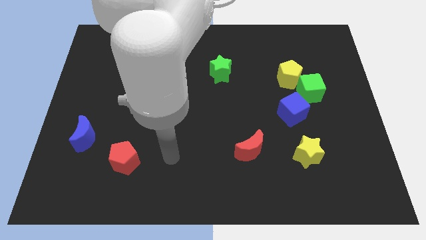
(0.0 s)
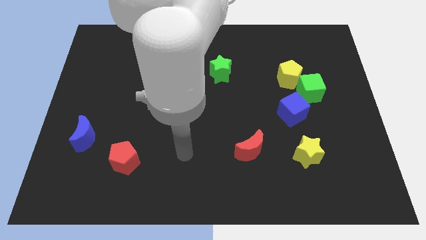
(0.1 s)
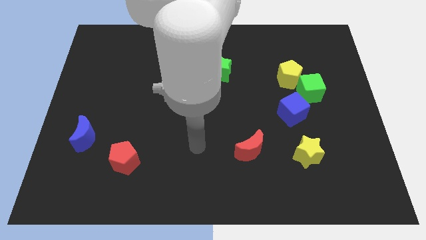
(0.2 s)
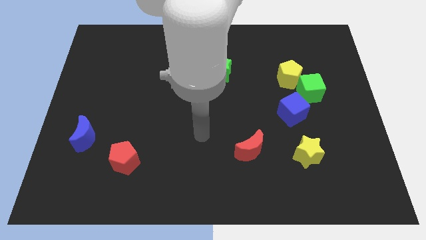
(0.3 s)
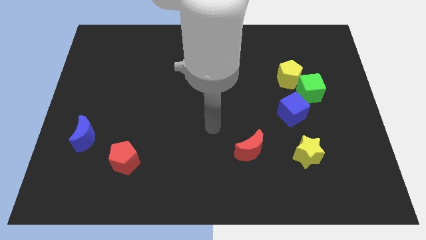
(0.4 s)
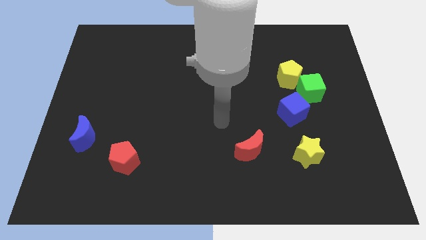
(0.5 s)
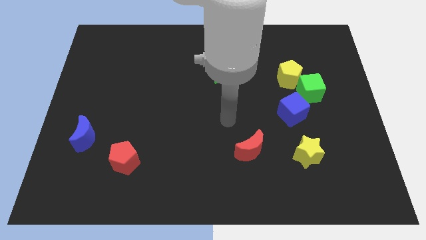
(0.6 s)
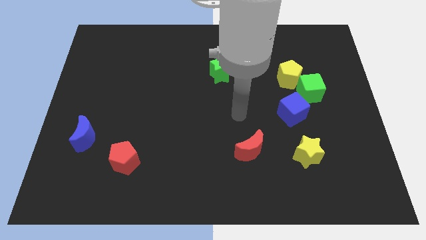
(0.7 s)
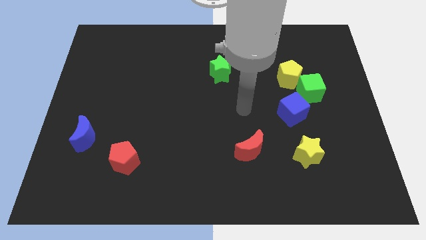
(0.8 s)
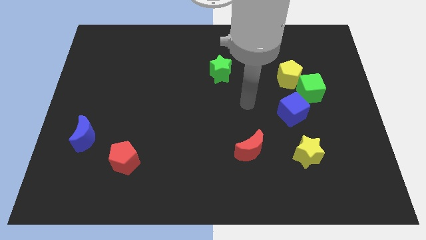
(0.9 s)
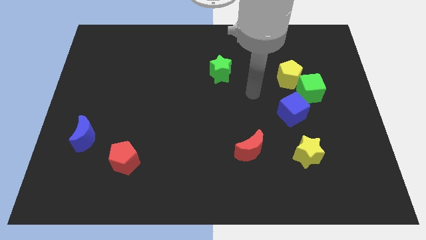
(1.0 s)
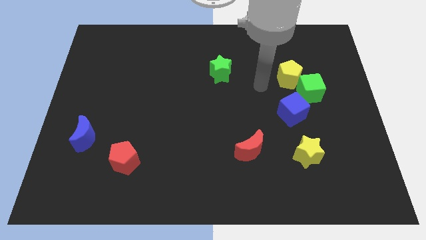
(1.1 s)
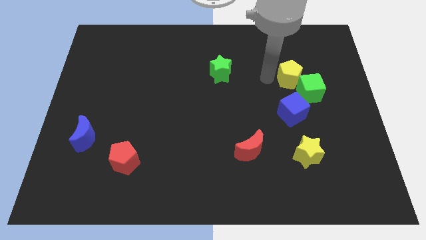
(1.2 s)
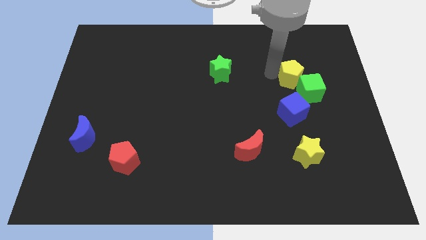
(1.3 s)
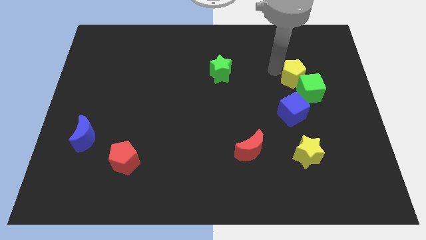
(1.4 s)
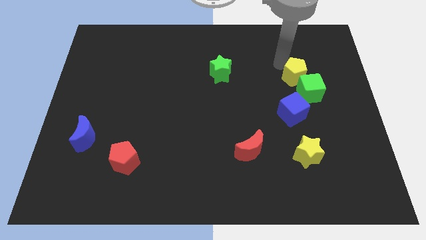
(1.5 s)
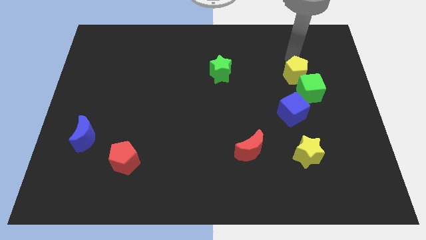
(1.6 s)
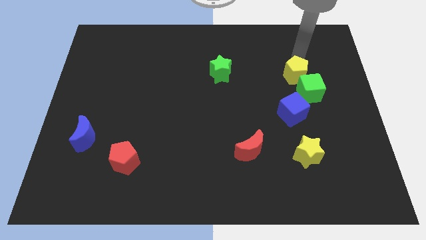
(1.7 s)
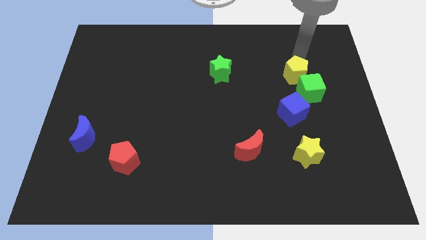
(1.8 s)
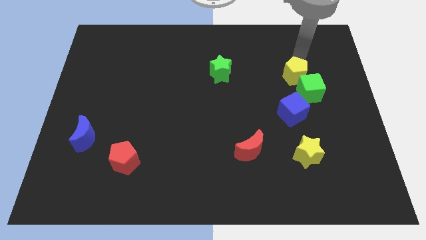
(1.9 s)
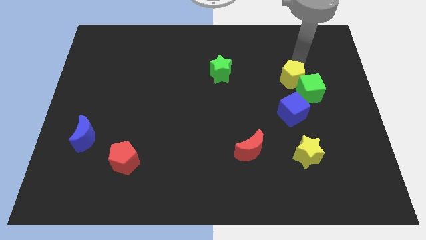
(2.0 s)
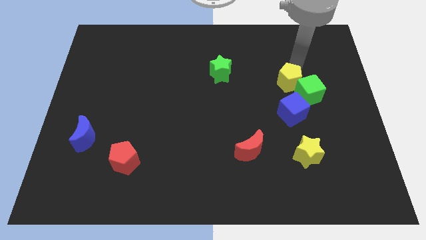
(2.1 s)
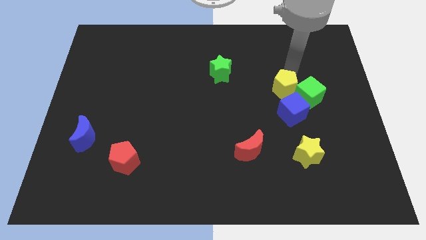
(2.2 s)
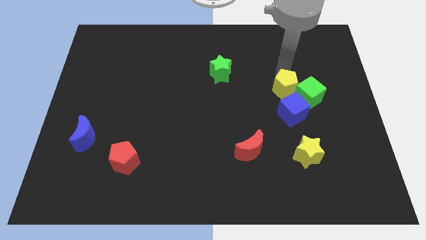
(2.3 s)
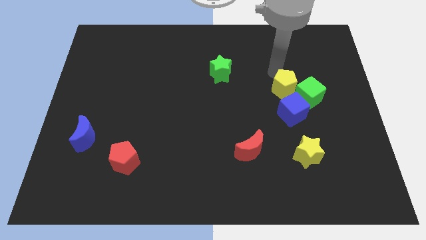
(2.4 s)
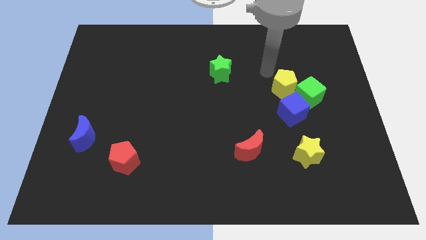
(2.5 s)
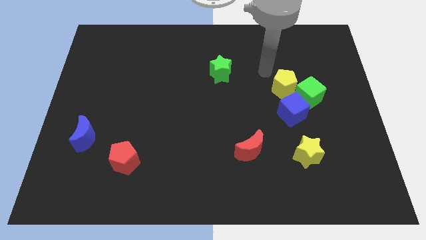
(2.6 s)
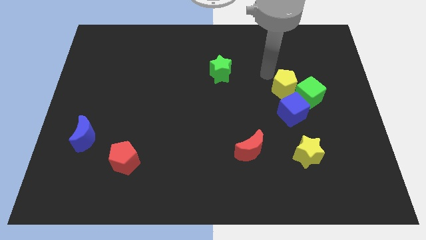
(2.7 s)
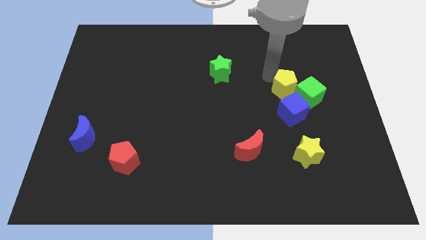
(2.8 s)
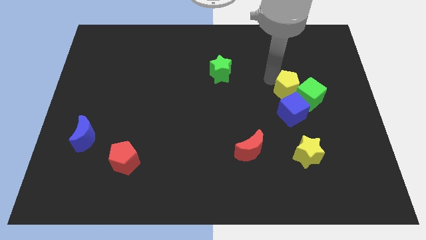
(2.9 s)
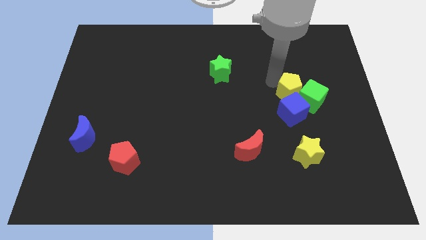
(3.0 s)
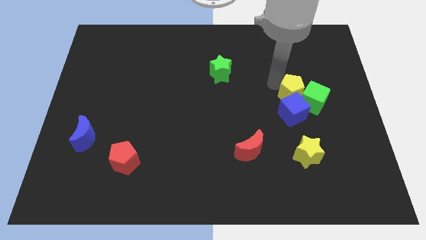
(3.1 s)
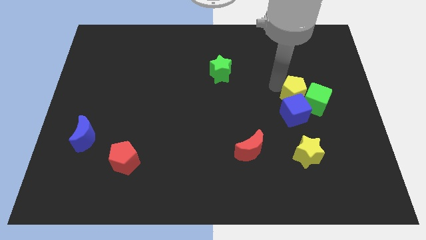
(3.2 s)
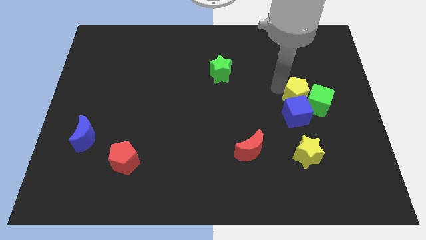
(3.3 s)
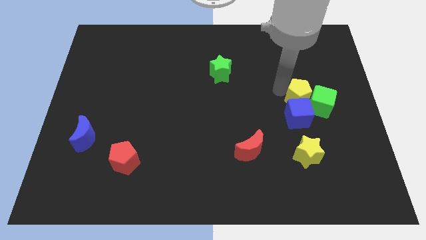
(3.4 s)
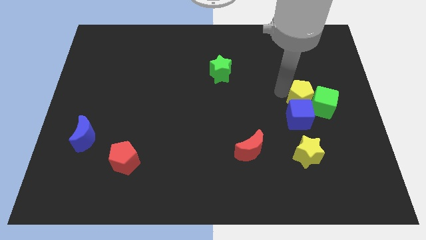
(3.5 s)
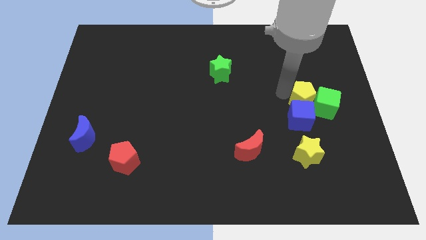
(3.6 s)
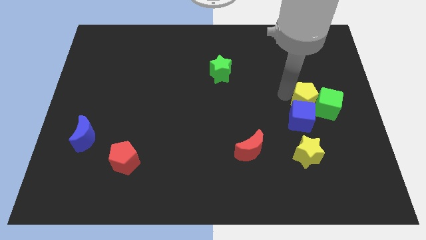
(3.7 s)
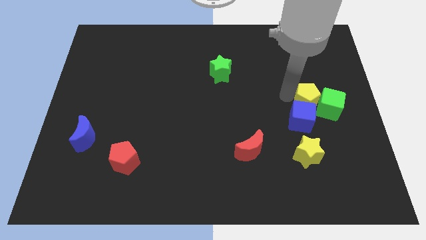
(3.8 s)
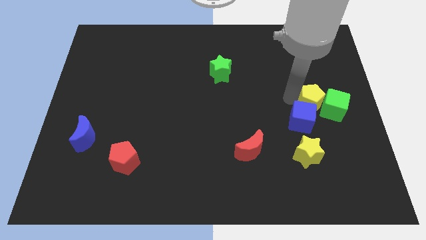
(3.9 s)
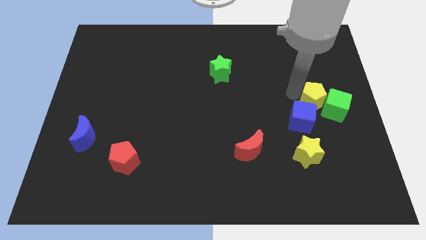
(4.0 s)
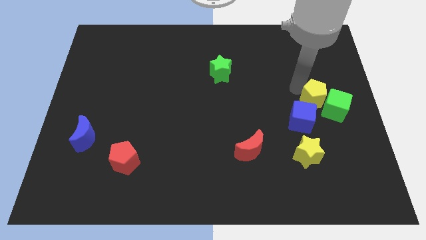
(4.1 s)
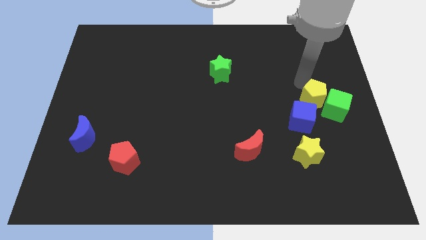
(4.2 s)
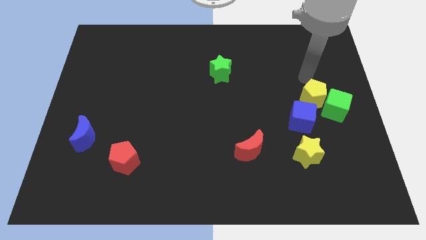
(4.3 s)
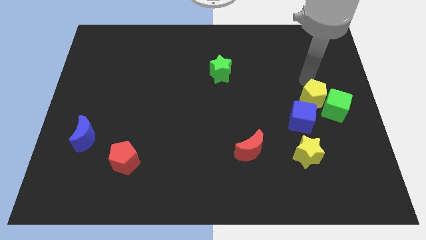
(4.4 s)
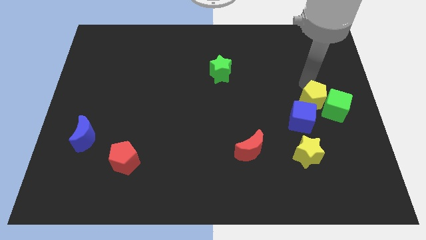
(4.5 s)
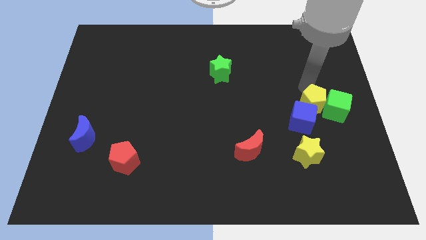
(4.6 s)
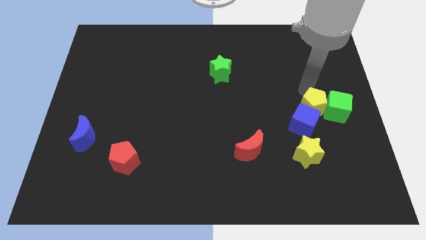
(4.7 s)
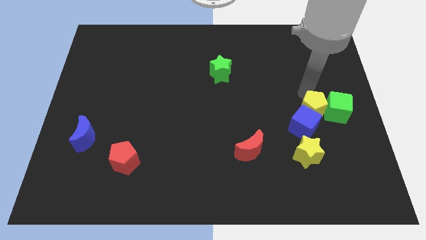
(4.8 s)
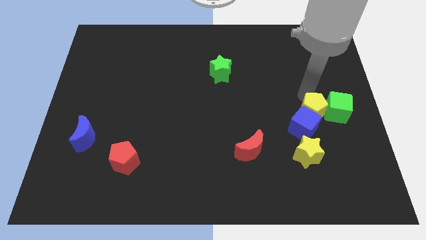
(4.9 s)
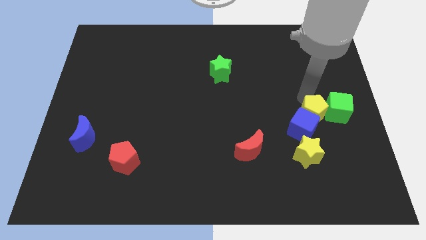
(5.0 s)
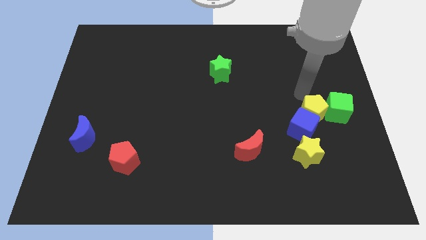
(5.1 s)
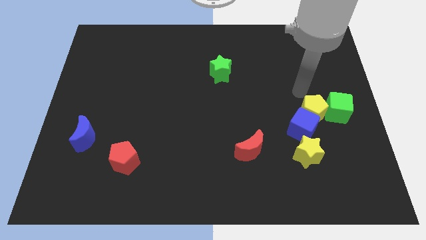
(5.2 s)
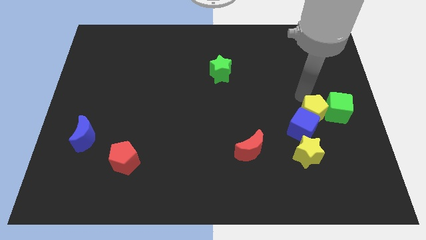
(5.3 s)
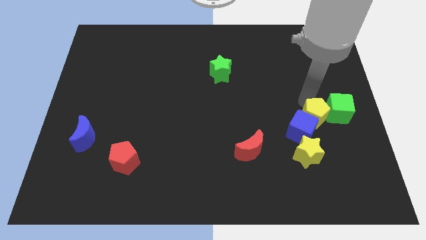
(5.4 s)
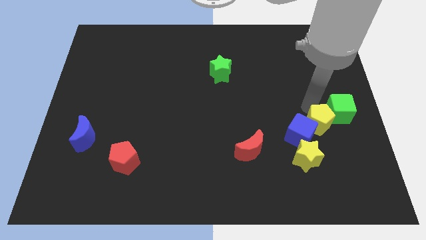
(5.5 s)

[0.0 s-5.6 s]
slide the yellow pentagon to the top right side of the yellow star

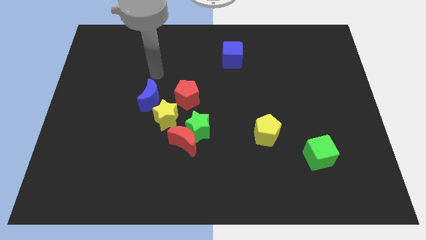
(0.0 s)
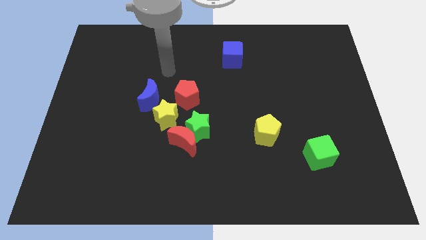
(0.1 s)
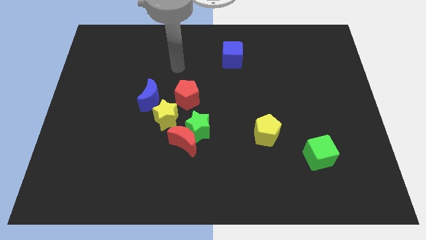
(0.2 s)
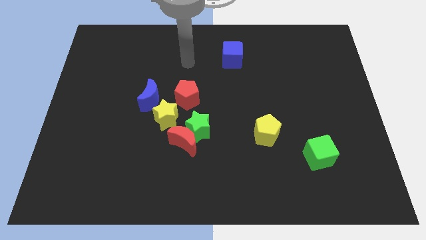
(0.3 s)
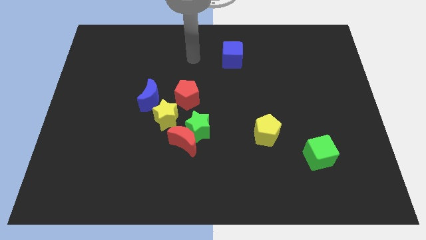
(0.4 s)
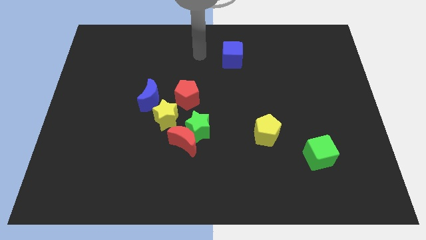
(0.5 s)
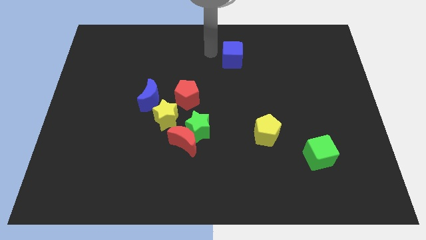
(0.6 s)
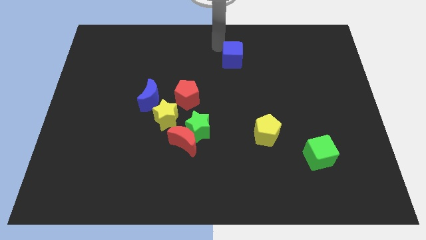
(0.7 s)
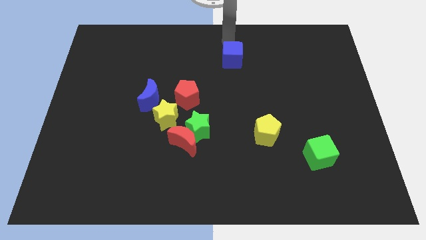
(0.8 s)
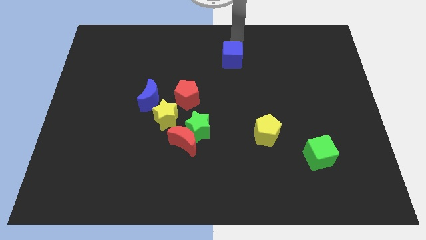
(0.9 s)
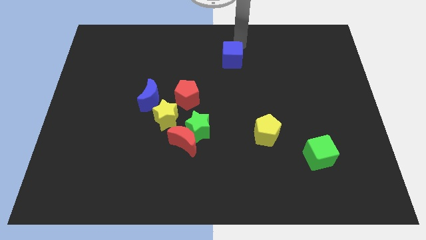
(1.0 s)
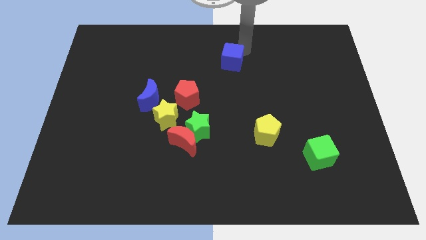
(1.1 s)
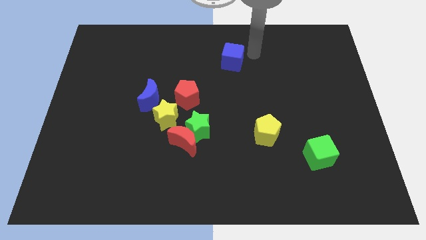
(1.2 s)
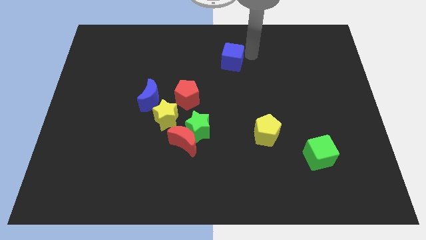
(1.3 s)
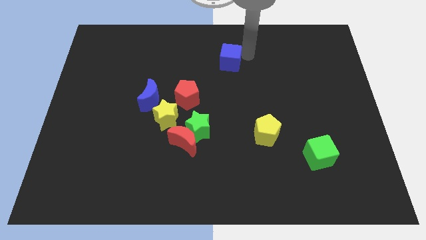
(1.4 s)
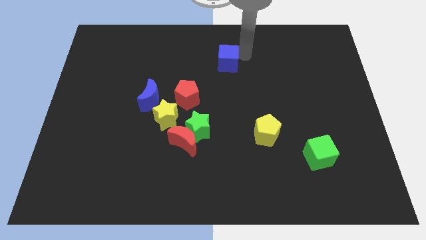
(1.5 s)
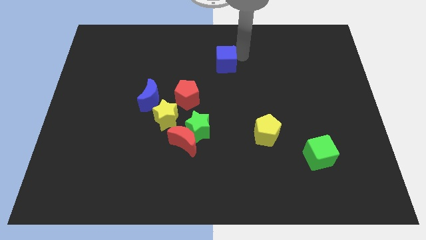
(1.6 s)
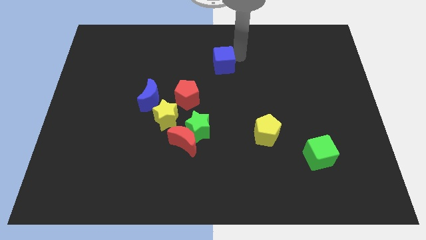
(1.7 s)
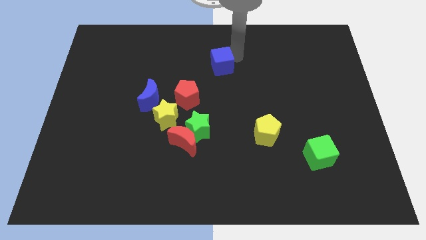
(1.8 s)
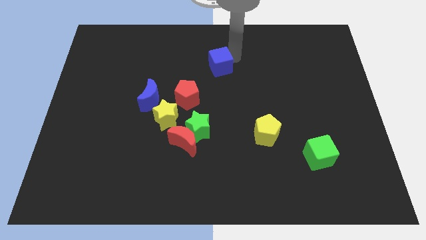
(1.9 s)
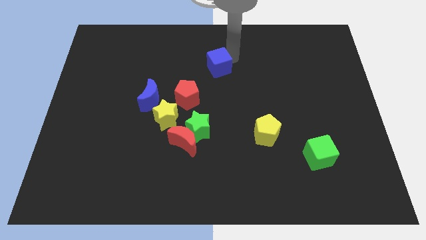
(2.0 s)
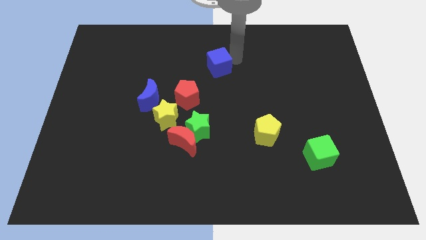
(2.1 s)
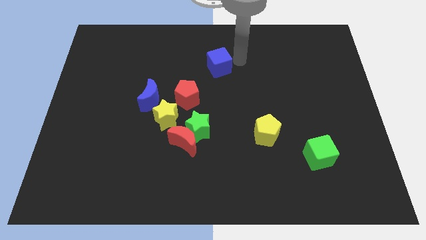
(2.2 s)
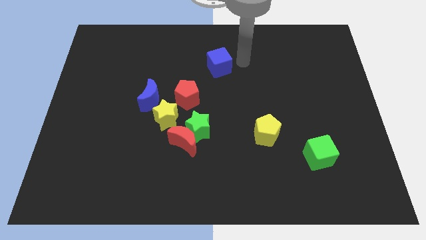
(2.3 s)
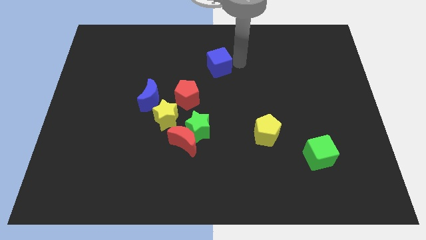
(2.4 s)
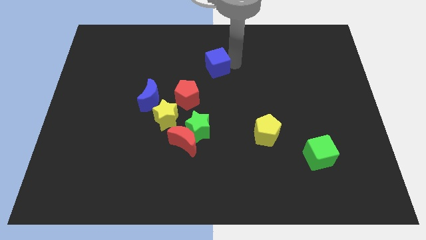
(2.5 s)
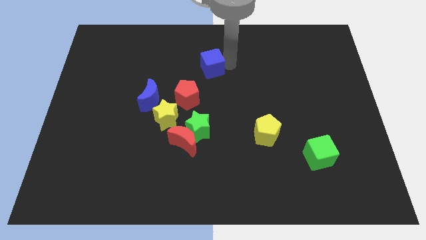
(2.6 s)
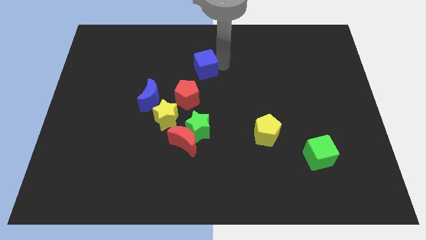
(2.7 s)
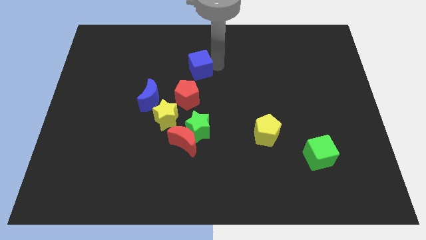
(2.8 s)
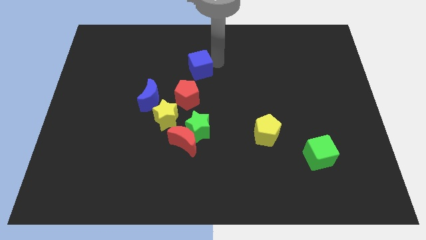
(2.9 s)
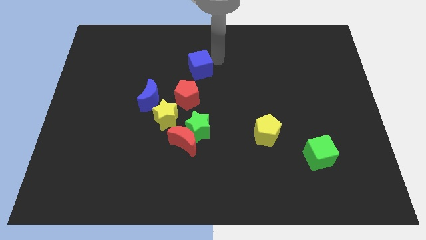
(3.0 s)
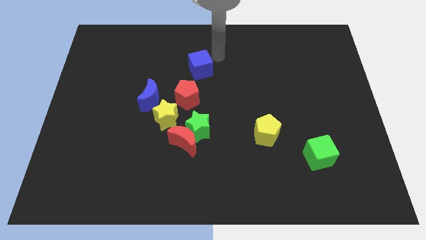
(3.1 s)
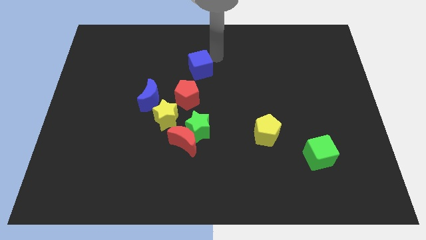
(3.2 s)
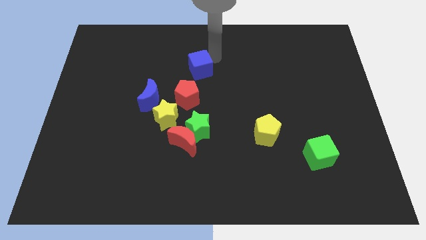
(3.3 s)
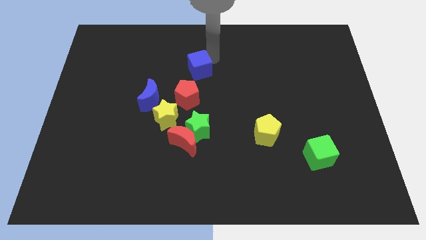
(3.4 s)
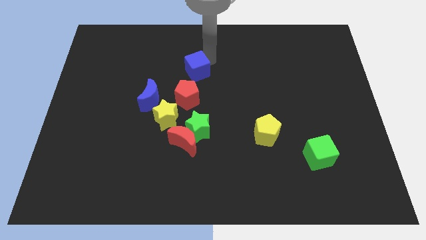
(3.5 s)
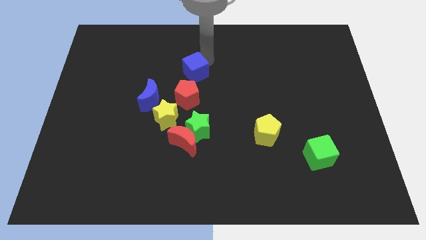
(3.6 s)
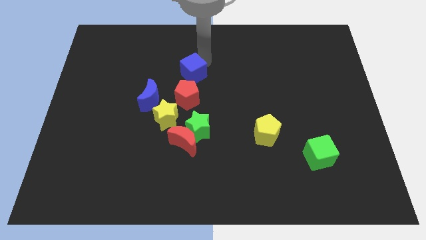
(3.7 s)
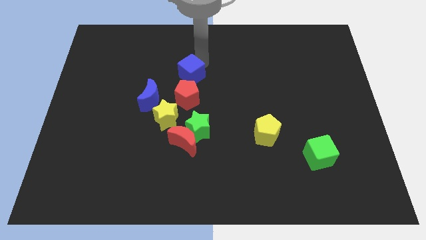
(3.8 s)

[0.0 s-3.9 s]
push the blue cube diagonally up and to the right of the blue moon
